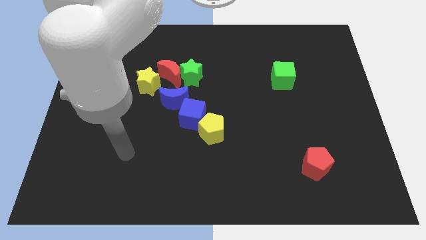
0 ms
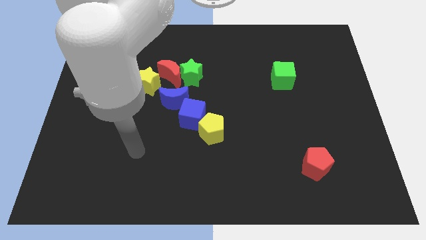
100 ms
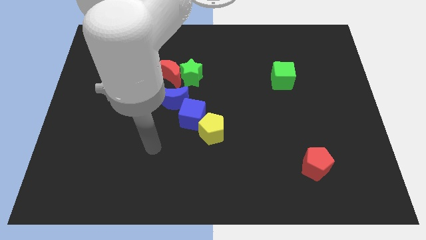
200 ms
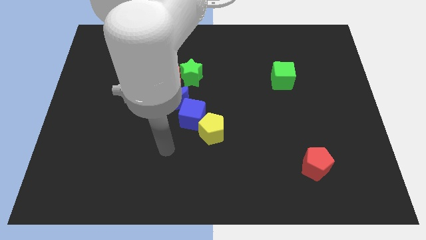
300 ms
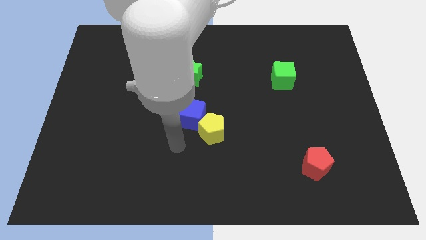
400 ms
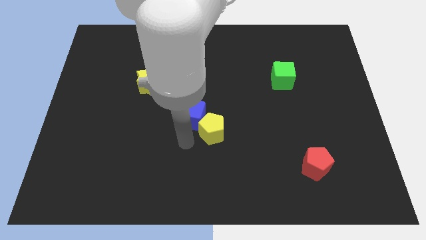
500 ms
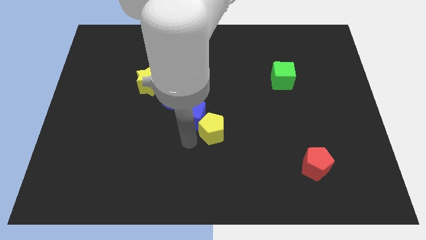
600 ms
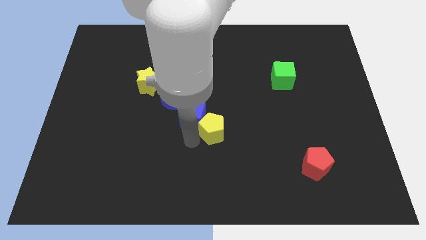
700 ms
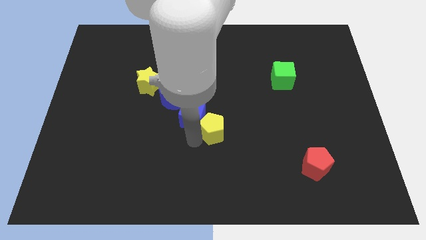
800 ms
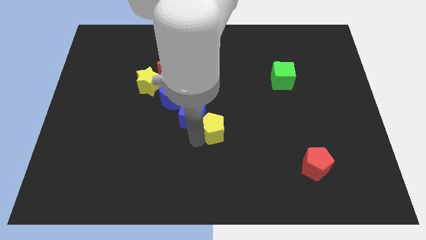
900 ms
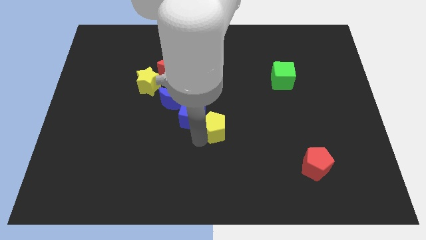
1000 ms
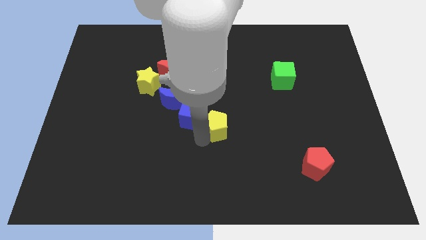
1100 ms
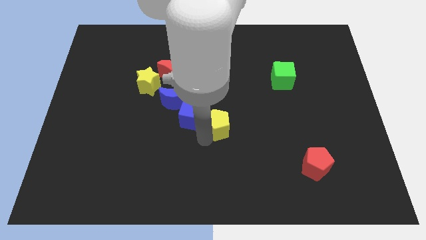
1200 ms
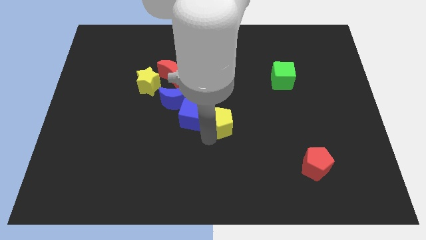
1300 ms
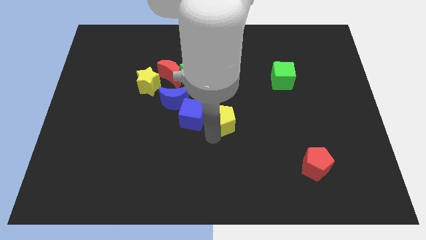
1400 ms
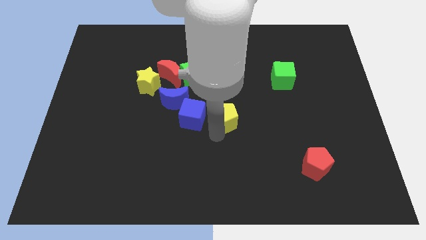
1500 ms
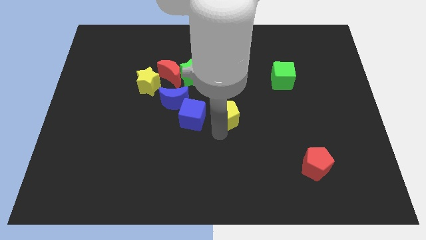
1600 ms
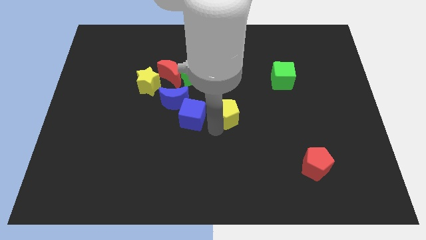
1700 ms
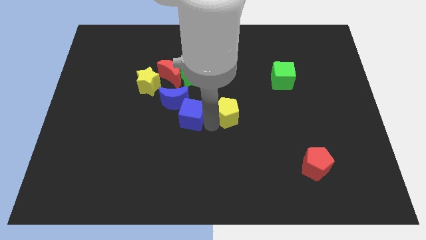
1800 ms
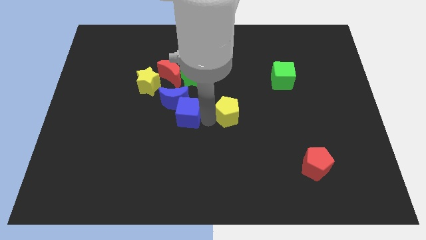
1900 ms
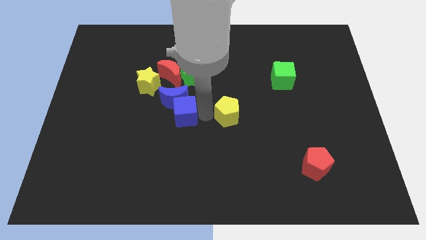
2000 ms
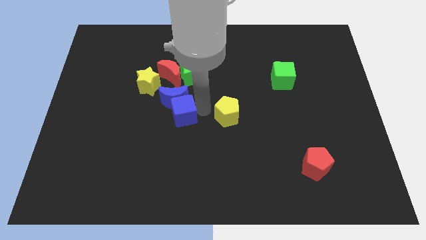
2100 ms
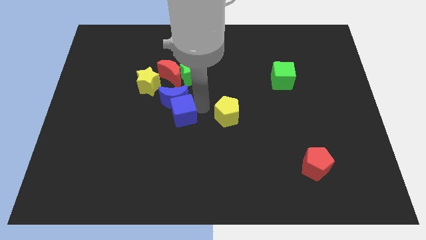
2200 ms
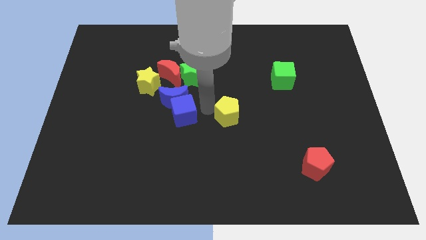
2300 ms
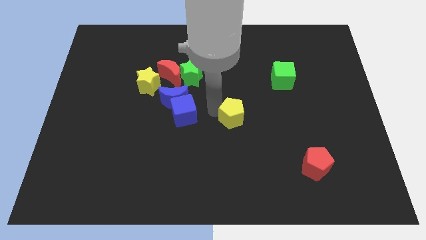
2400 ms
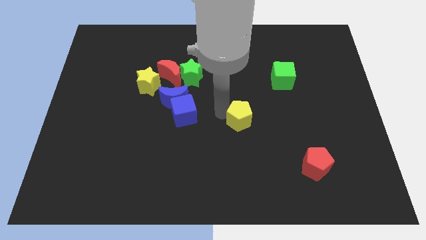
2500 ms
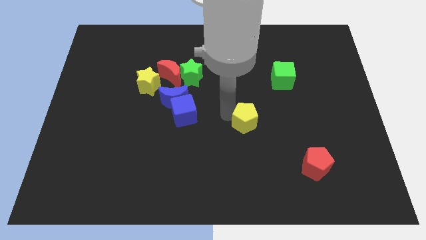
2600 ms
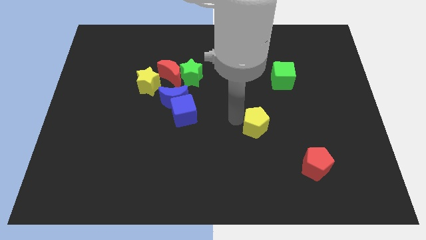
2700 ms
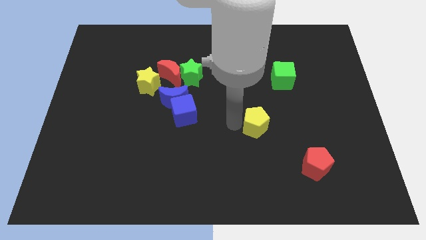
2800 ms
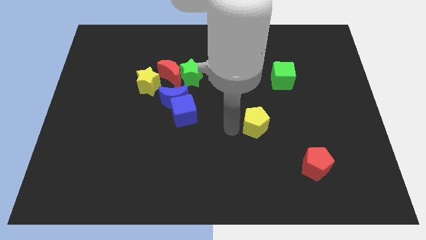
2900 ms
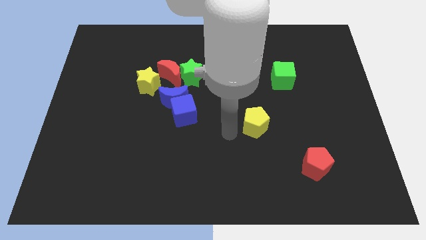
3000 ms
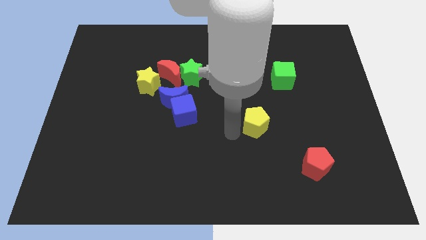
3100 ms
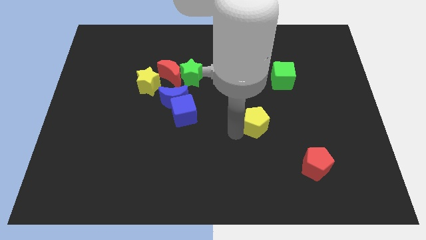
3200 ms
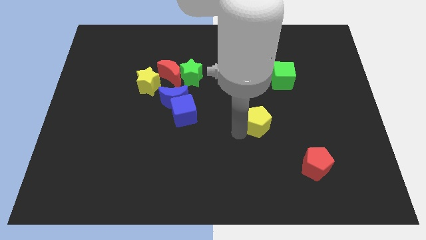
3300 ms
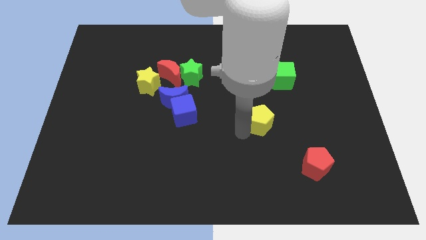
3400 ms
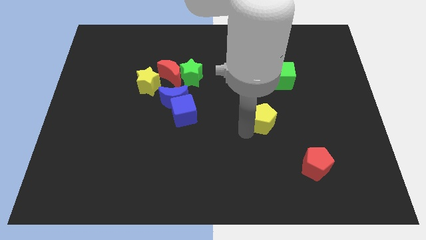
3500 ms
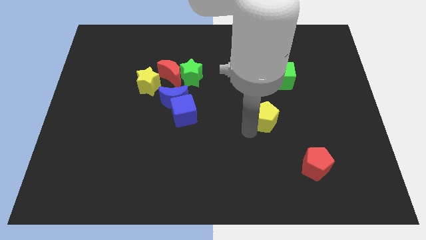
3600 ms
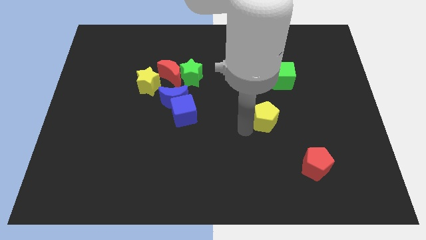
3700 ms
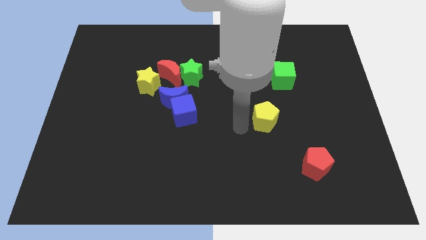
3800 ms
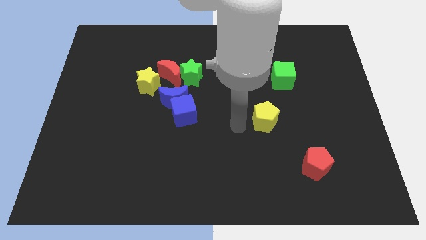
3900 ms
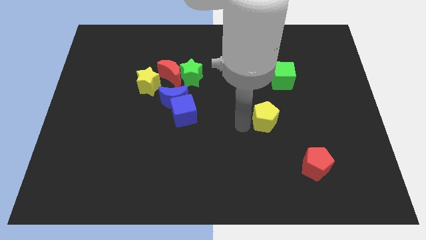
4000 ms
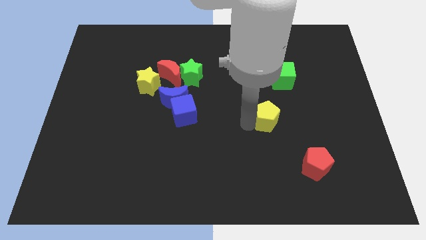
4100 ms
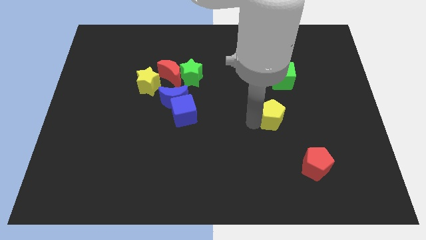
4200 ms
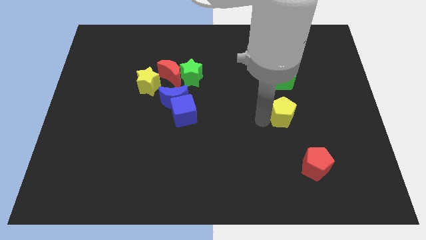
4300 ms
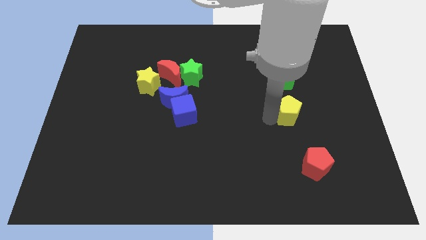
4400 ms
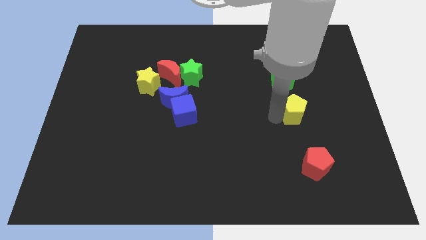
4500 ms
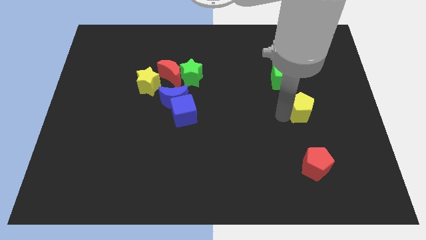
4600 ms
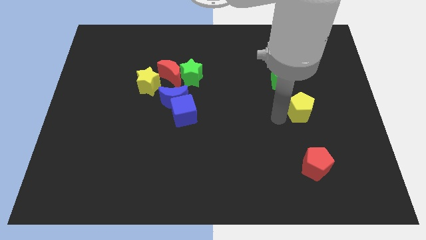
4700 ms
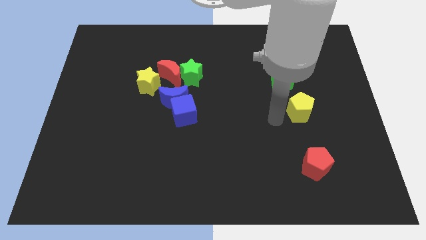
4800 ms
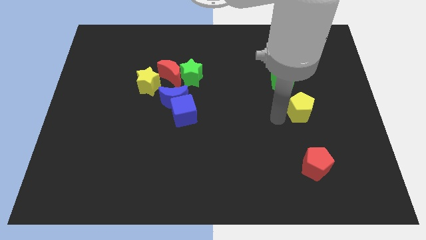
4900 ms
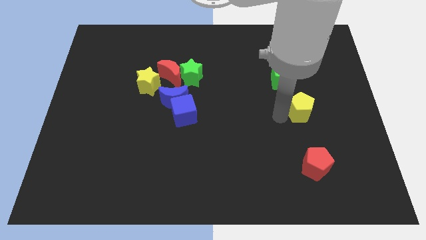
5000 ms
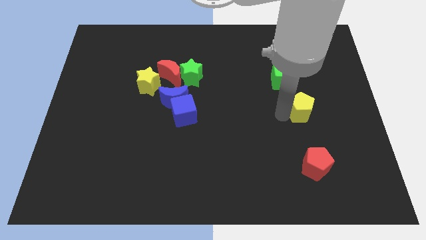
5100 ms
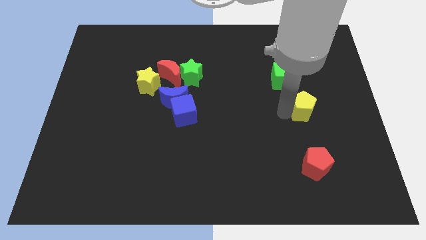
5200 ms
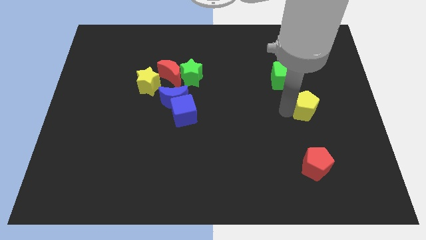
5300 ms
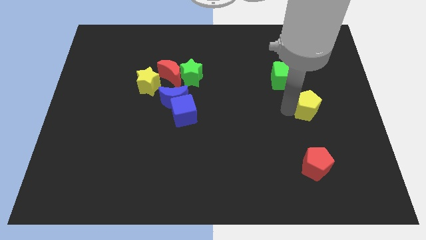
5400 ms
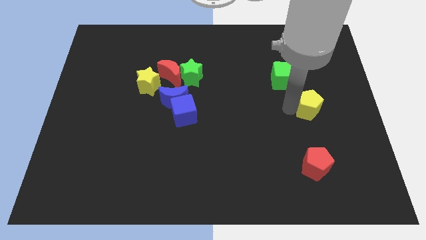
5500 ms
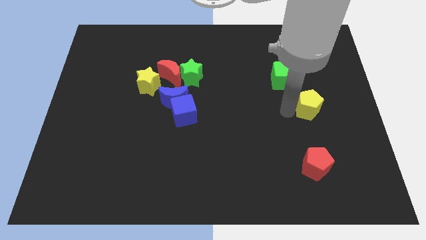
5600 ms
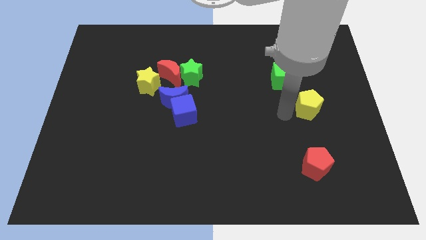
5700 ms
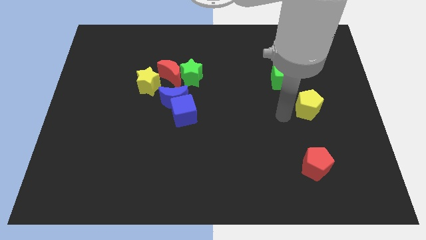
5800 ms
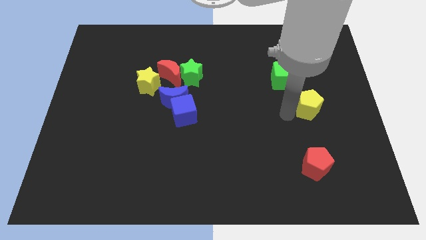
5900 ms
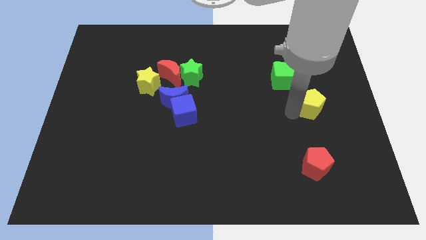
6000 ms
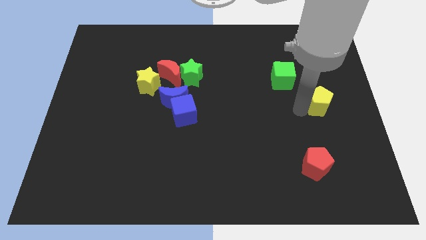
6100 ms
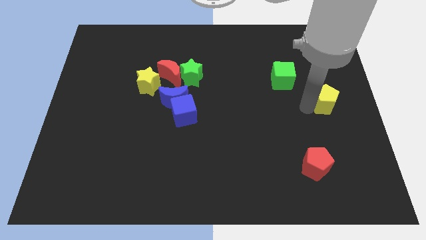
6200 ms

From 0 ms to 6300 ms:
put the yellow pentagon to the right side
